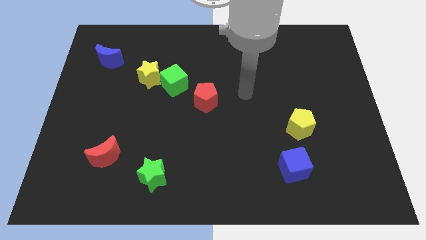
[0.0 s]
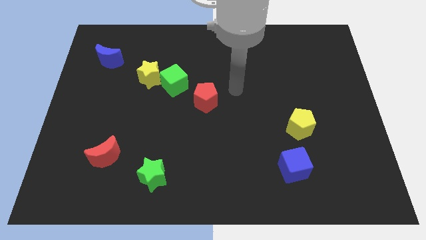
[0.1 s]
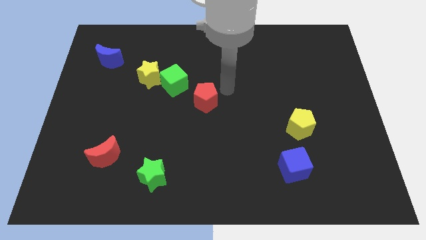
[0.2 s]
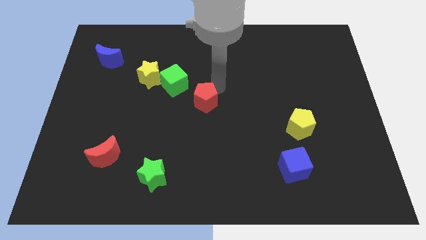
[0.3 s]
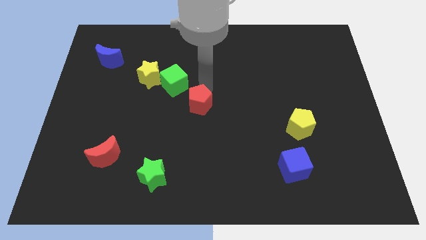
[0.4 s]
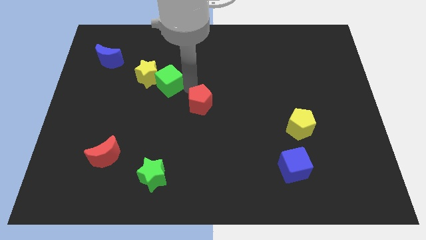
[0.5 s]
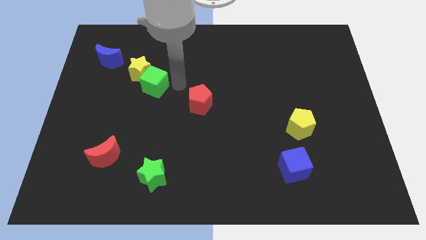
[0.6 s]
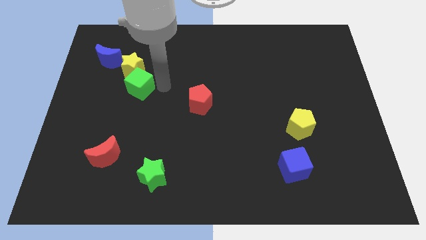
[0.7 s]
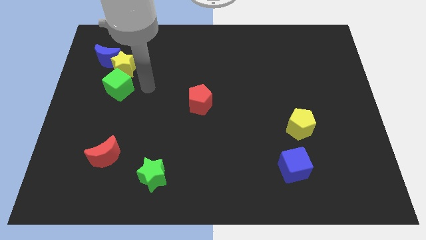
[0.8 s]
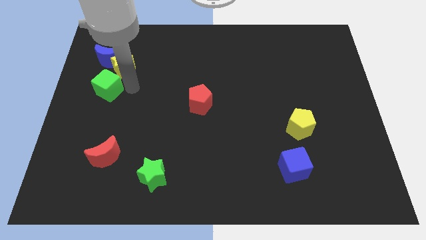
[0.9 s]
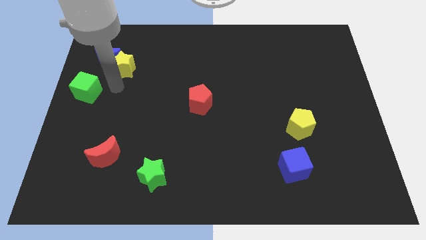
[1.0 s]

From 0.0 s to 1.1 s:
move the yellow star away from the green cube

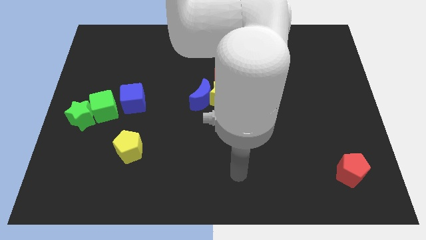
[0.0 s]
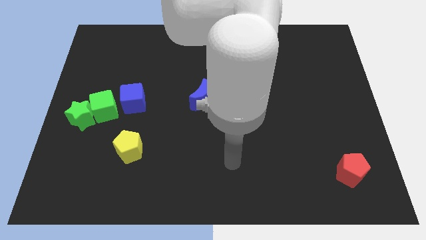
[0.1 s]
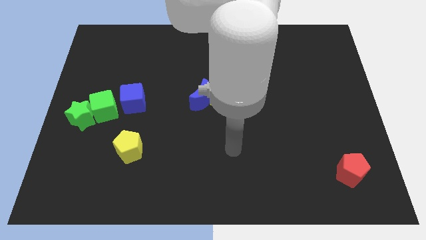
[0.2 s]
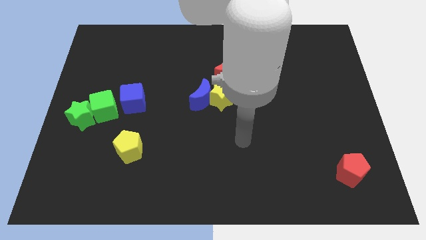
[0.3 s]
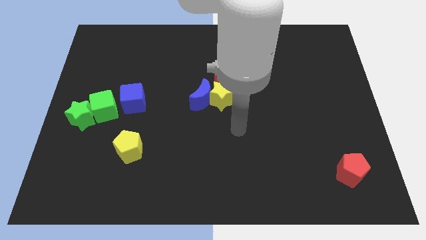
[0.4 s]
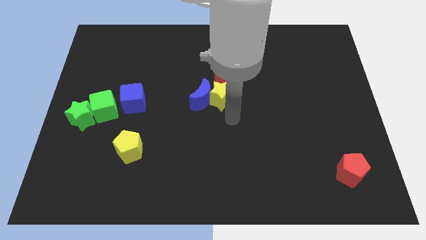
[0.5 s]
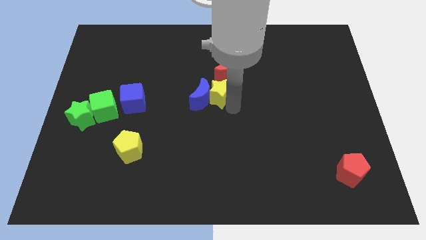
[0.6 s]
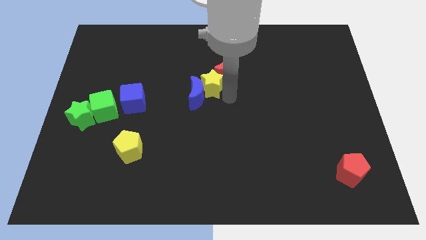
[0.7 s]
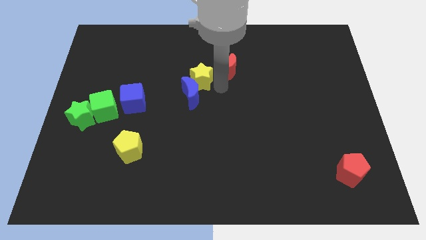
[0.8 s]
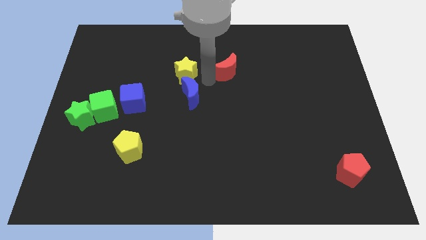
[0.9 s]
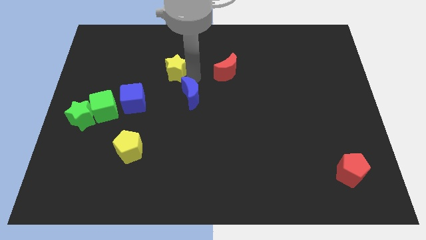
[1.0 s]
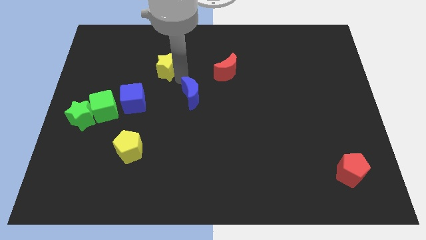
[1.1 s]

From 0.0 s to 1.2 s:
separate the blue moon from the yellow star

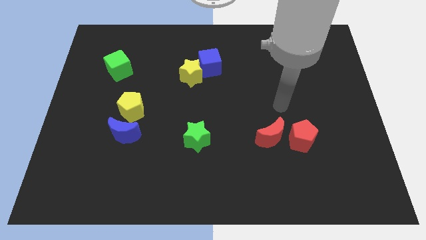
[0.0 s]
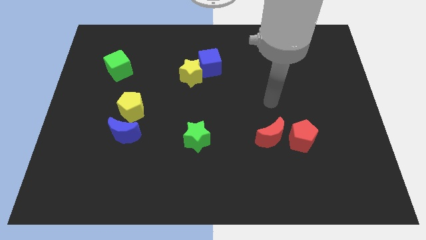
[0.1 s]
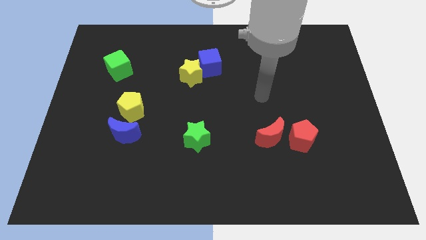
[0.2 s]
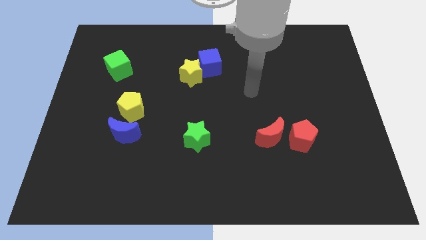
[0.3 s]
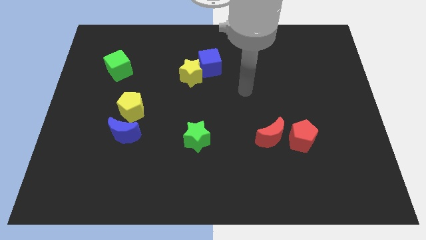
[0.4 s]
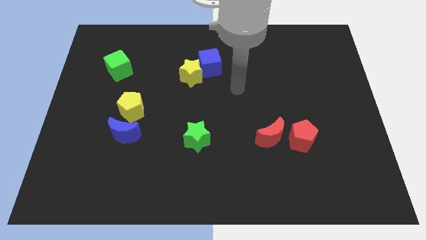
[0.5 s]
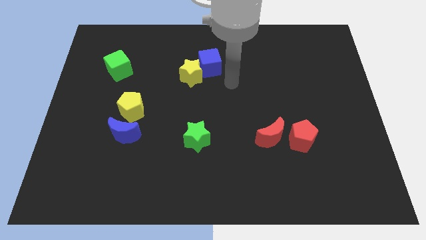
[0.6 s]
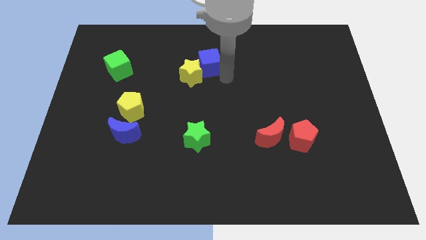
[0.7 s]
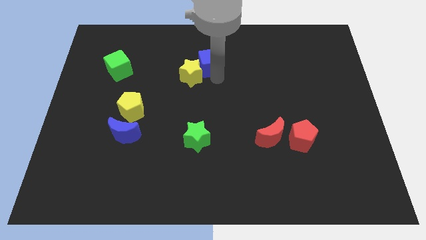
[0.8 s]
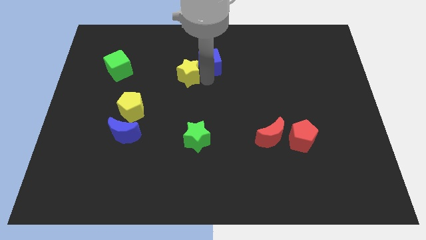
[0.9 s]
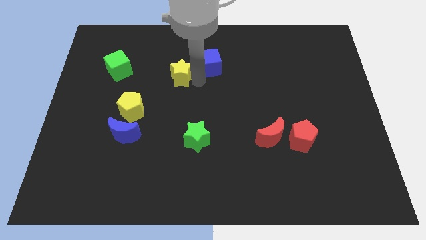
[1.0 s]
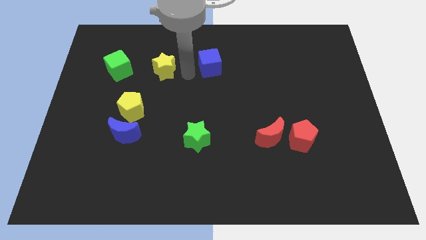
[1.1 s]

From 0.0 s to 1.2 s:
pull the blue cube apart from the yellow star

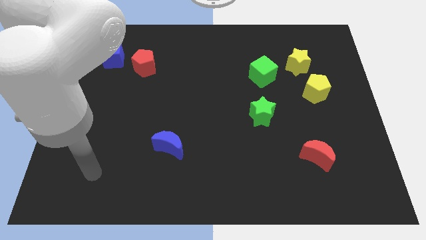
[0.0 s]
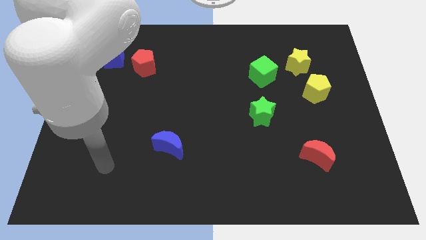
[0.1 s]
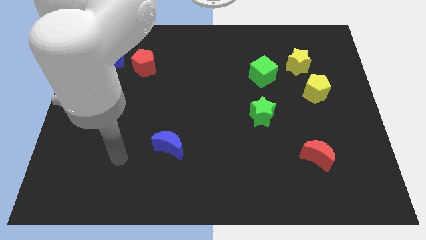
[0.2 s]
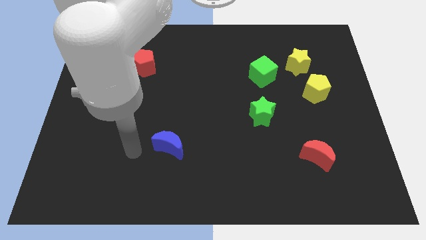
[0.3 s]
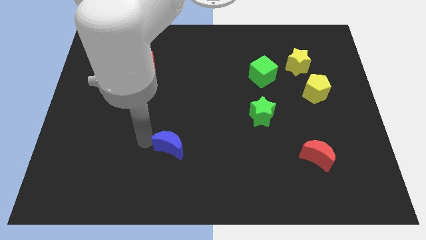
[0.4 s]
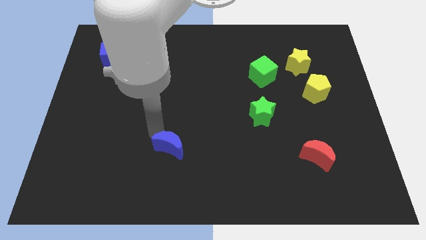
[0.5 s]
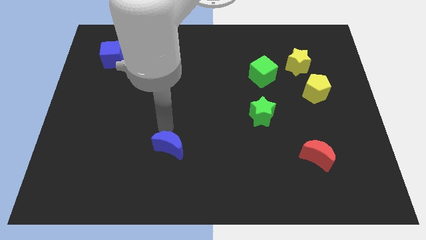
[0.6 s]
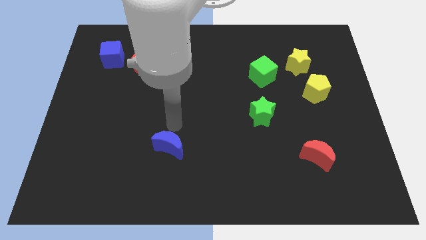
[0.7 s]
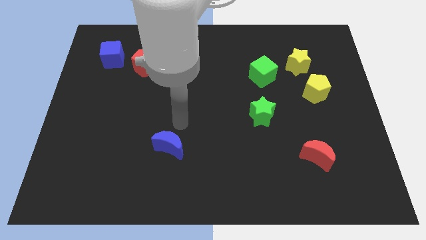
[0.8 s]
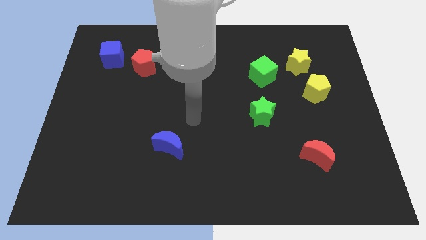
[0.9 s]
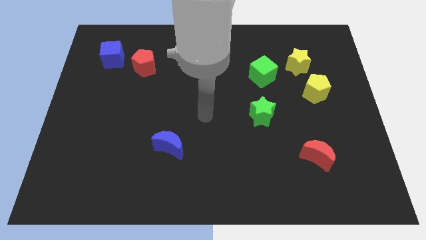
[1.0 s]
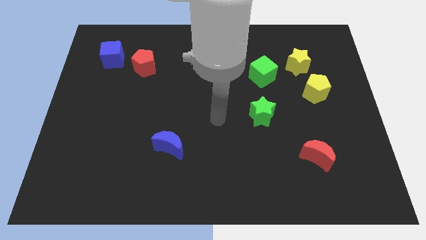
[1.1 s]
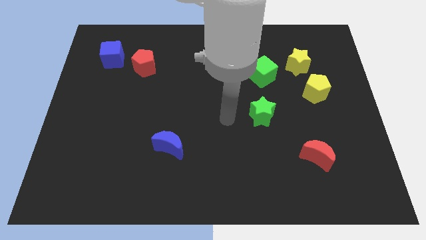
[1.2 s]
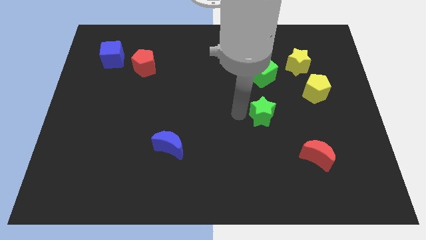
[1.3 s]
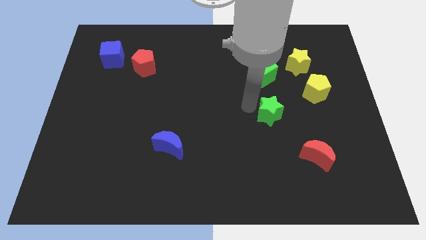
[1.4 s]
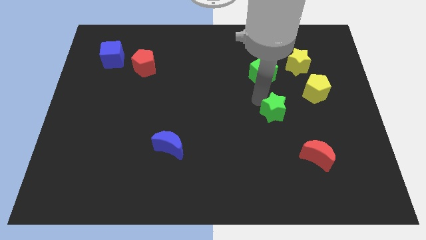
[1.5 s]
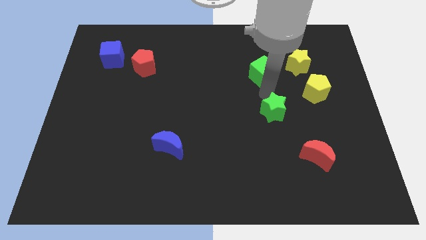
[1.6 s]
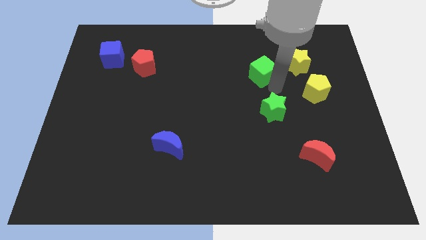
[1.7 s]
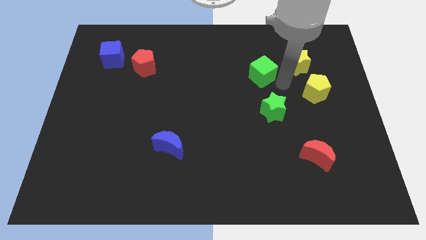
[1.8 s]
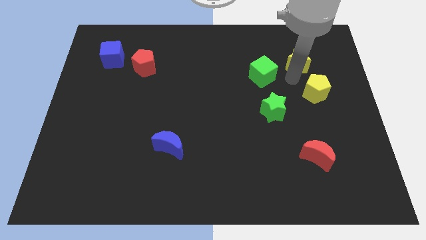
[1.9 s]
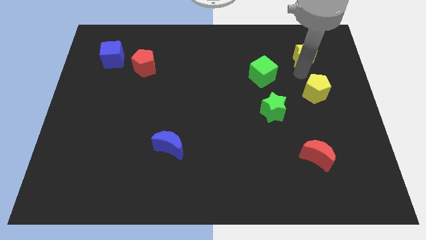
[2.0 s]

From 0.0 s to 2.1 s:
move the yellow pentagon away from the yellow star

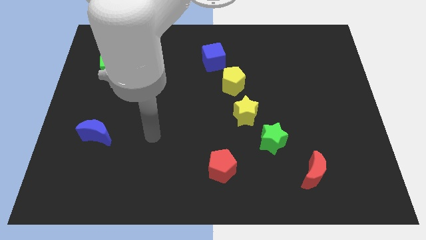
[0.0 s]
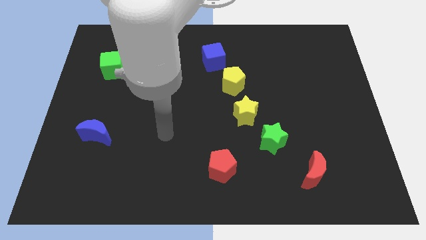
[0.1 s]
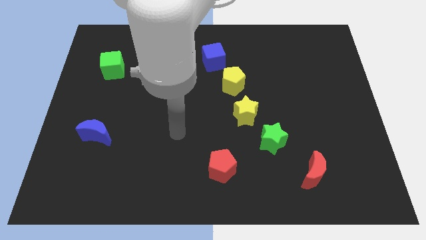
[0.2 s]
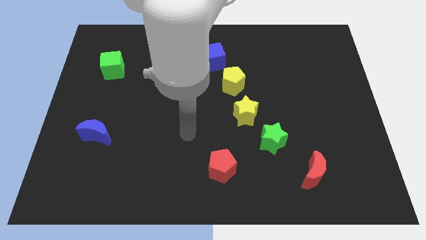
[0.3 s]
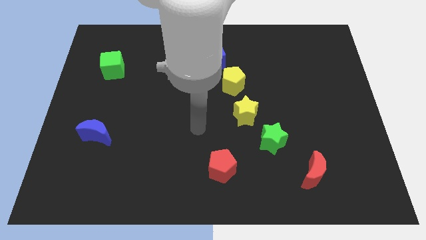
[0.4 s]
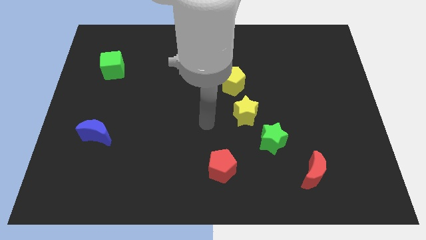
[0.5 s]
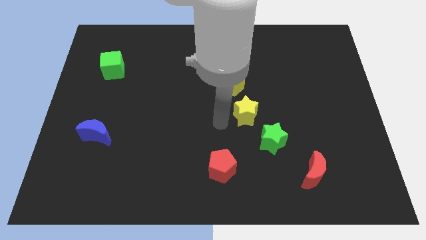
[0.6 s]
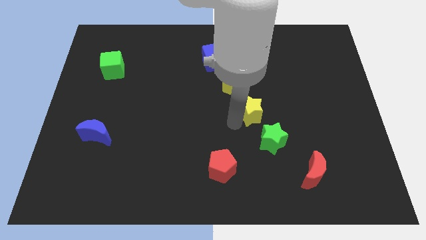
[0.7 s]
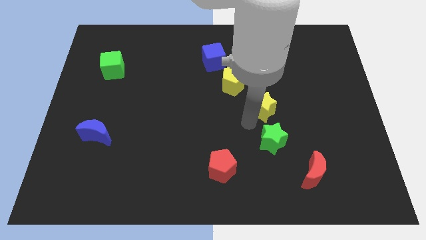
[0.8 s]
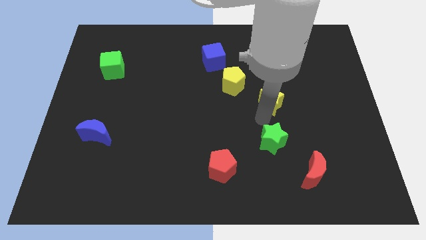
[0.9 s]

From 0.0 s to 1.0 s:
separate the green star from the yellow star

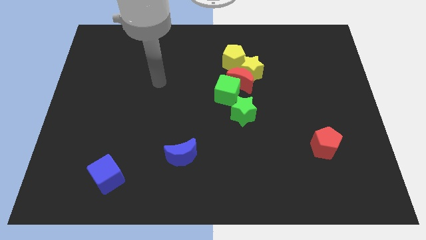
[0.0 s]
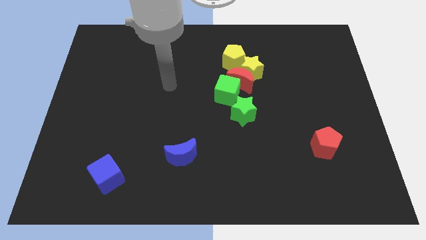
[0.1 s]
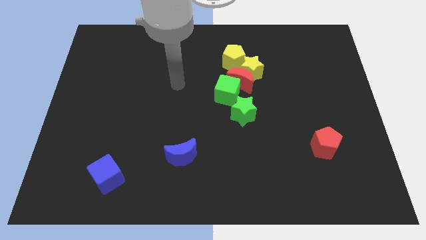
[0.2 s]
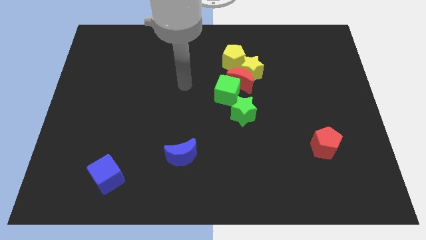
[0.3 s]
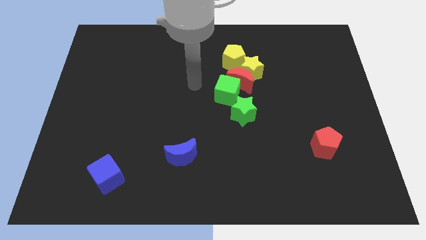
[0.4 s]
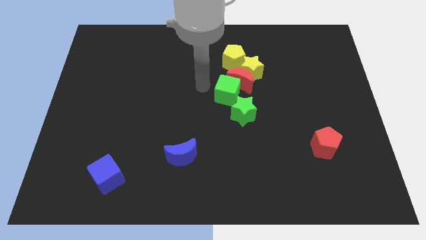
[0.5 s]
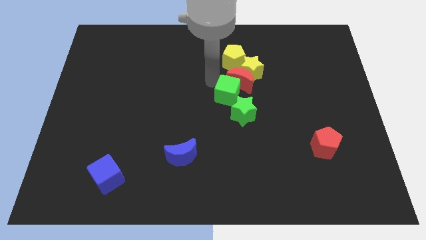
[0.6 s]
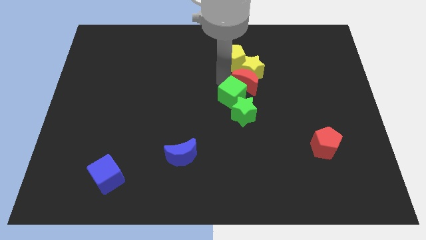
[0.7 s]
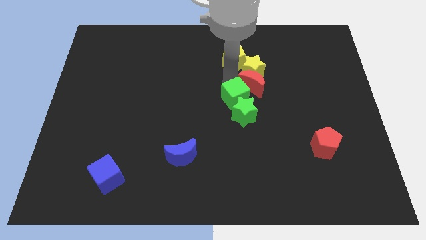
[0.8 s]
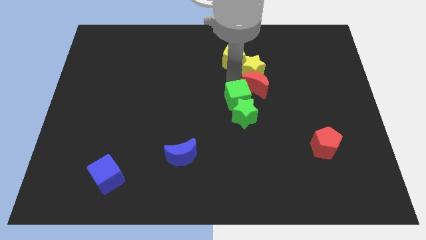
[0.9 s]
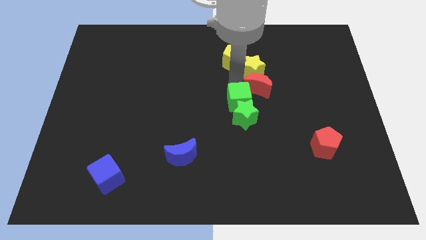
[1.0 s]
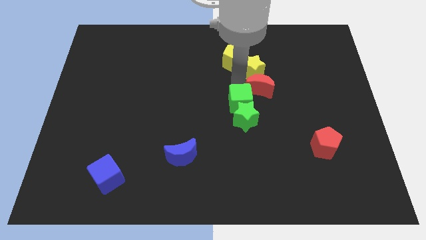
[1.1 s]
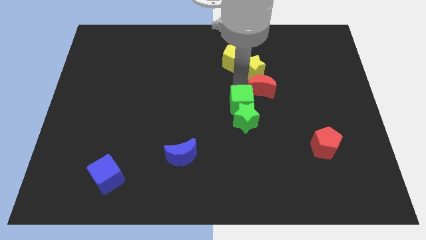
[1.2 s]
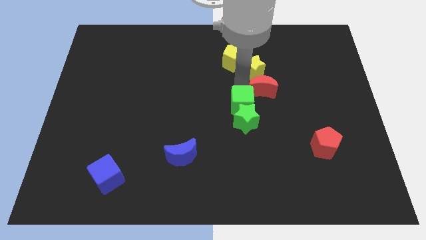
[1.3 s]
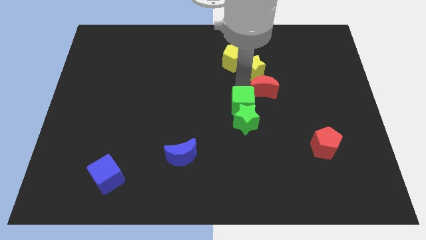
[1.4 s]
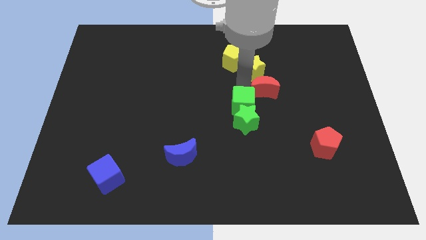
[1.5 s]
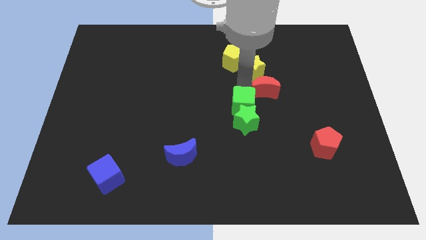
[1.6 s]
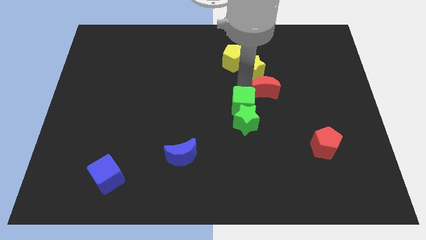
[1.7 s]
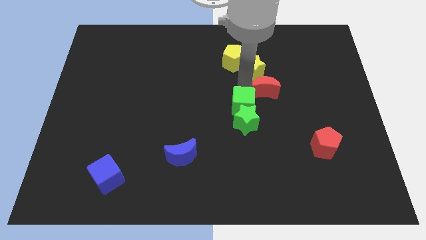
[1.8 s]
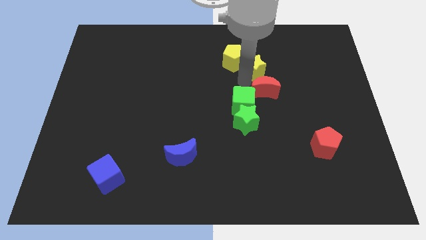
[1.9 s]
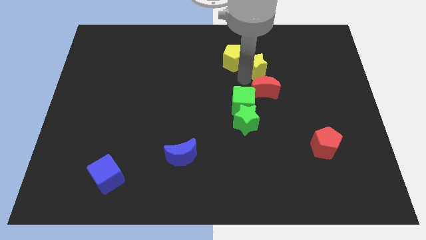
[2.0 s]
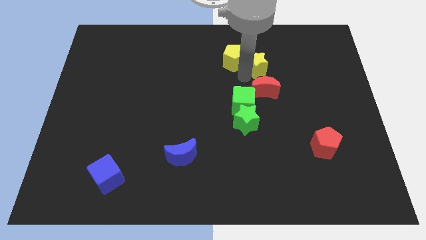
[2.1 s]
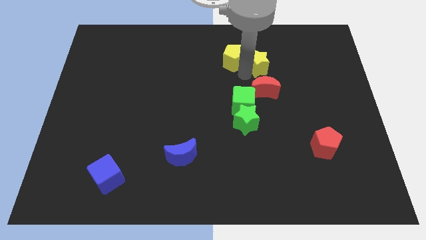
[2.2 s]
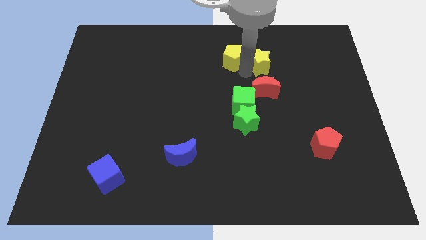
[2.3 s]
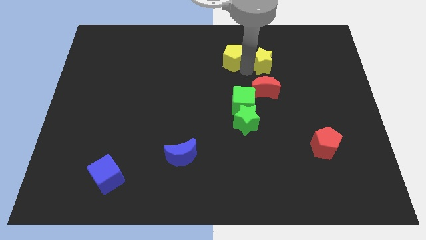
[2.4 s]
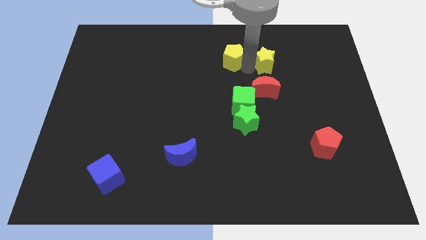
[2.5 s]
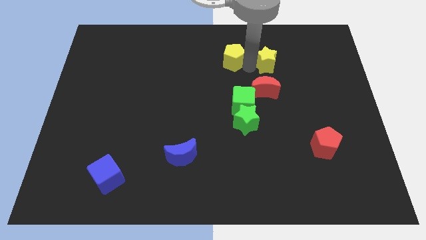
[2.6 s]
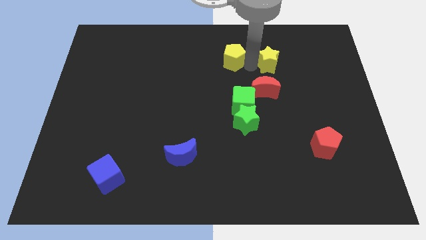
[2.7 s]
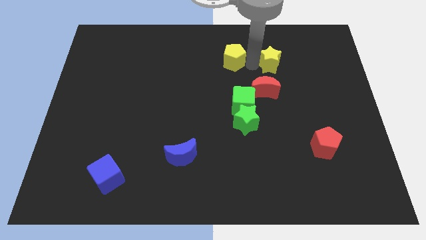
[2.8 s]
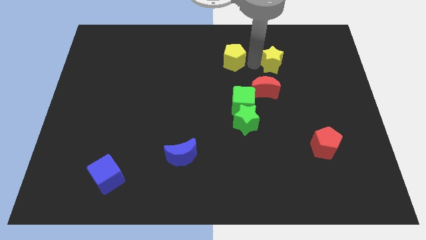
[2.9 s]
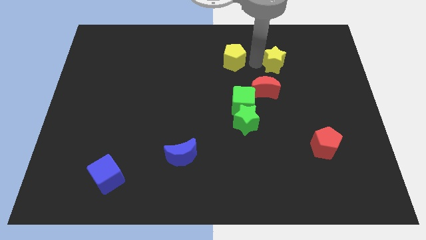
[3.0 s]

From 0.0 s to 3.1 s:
pull the yellow star apart from the red moon, yellow pentagon, and green cube
